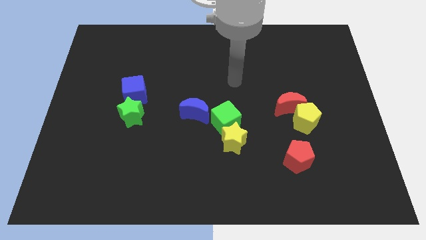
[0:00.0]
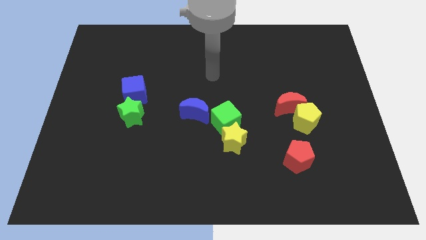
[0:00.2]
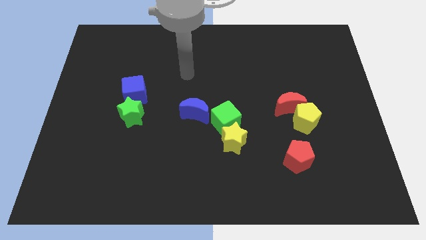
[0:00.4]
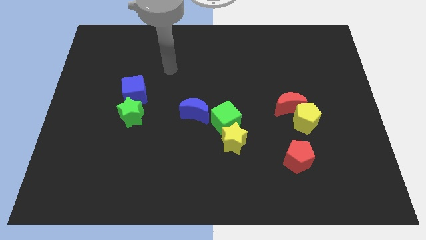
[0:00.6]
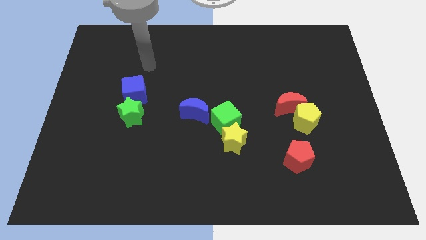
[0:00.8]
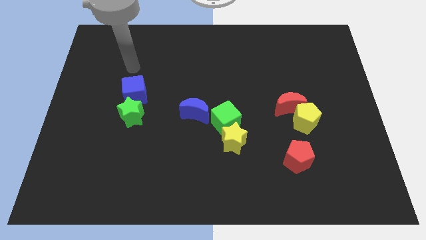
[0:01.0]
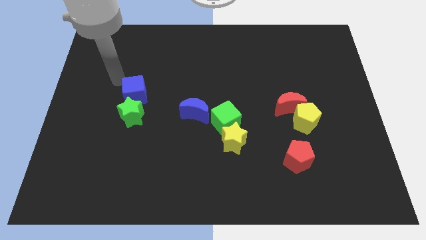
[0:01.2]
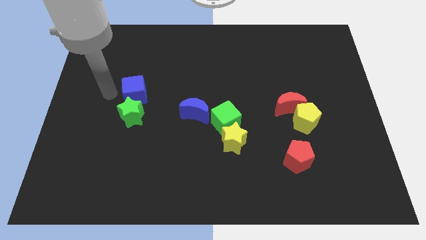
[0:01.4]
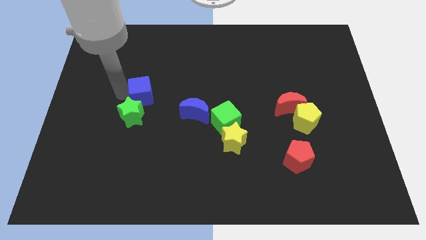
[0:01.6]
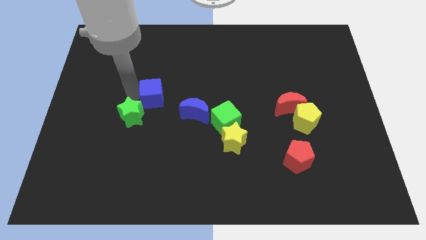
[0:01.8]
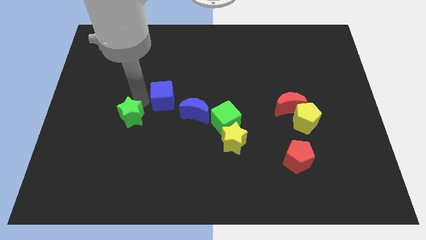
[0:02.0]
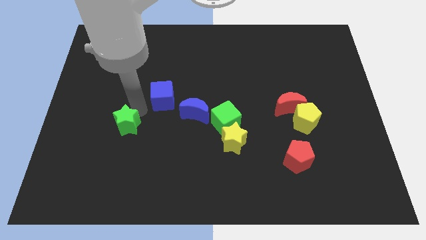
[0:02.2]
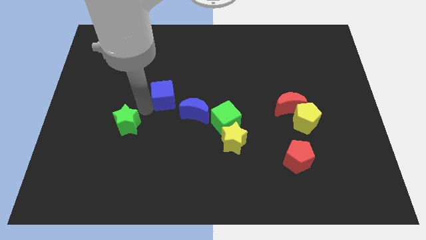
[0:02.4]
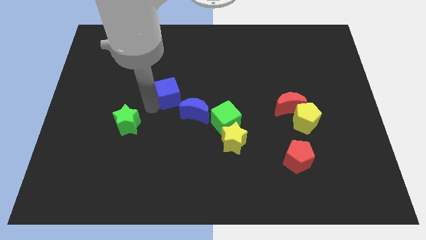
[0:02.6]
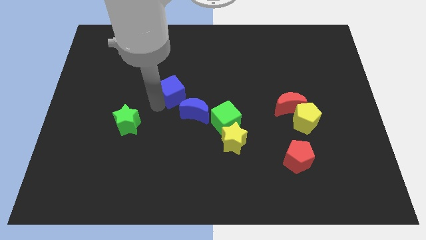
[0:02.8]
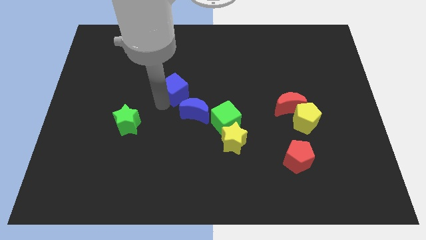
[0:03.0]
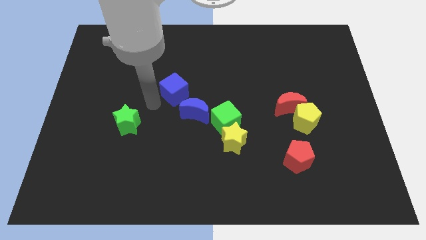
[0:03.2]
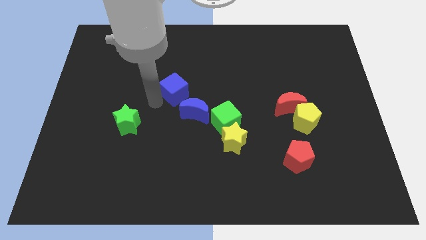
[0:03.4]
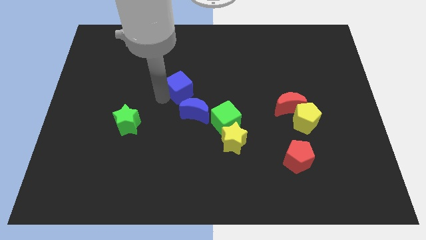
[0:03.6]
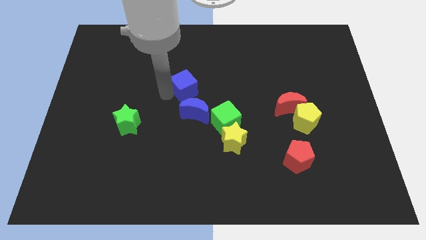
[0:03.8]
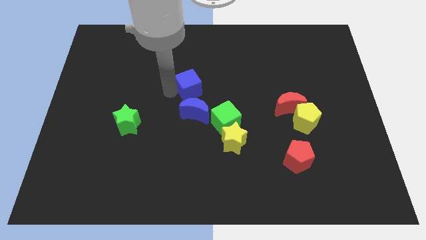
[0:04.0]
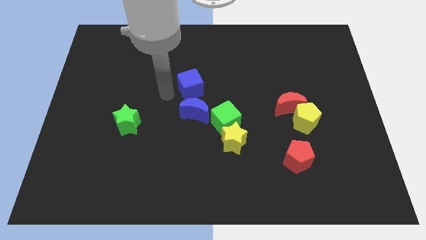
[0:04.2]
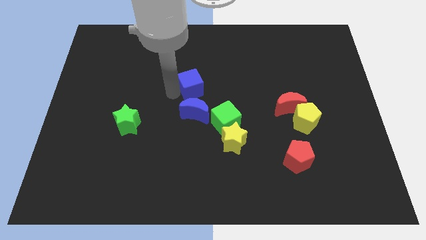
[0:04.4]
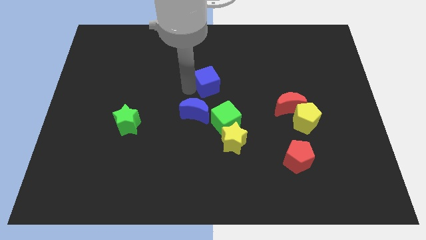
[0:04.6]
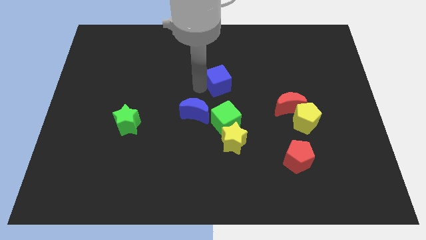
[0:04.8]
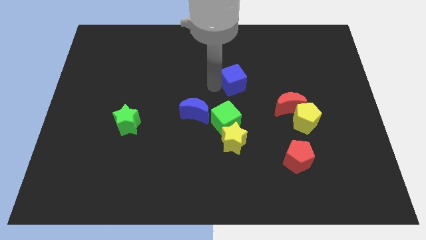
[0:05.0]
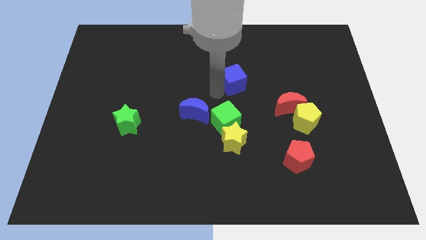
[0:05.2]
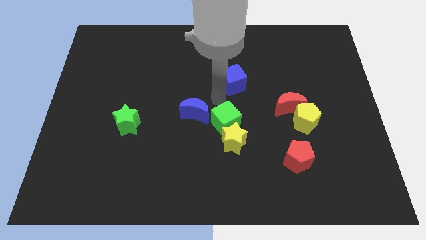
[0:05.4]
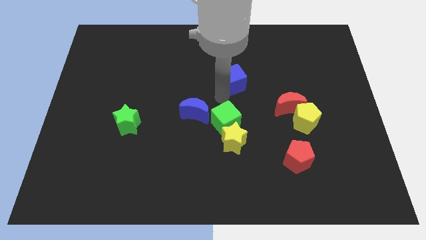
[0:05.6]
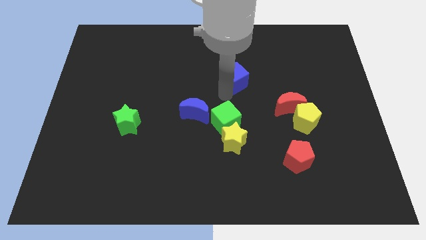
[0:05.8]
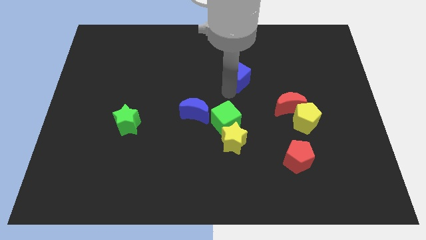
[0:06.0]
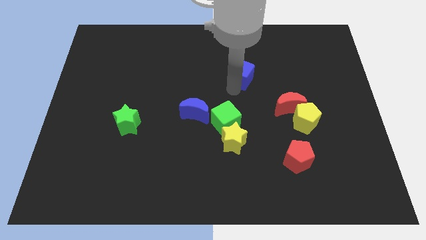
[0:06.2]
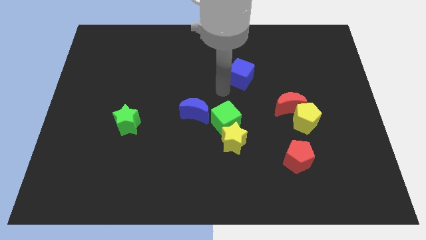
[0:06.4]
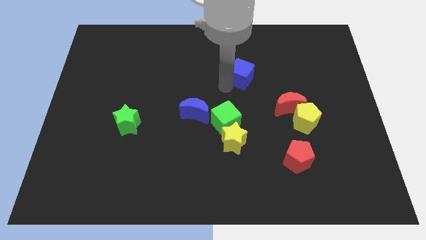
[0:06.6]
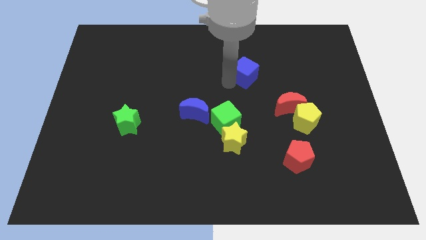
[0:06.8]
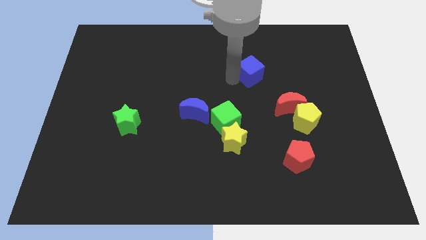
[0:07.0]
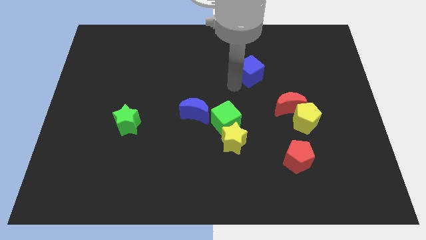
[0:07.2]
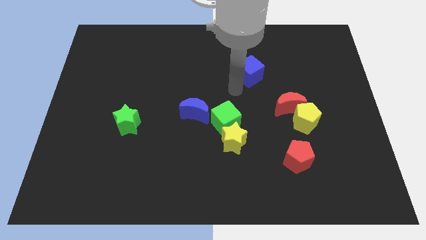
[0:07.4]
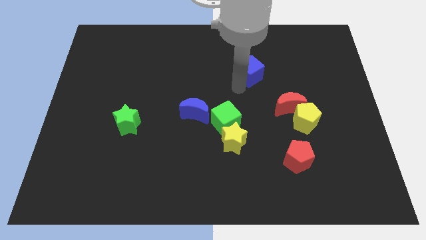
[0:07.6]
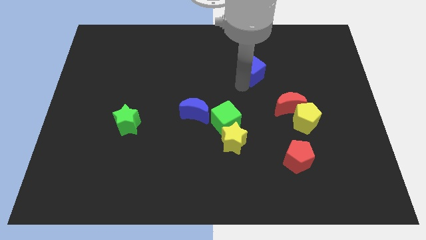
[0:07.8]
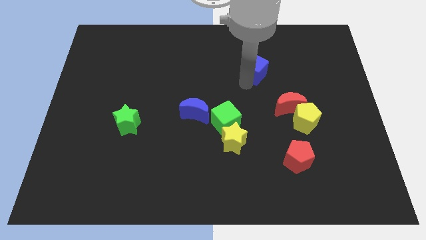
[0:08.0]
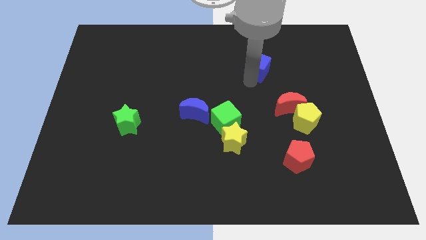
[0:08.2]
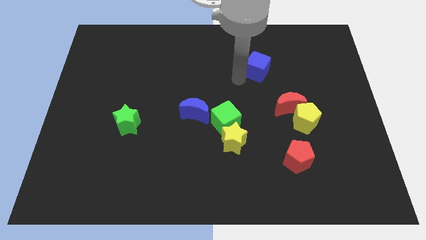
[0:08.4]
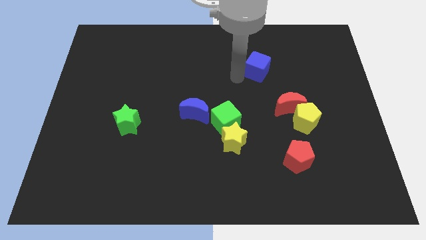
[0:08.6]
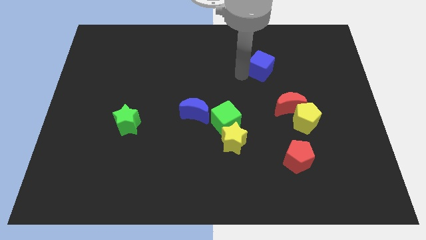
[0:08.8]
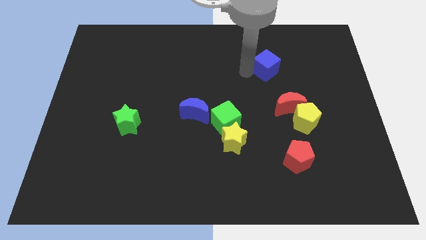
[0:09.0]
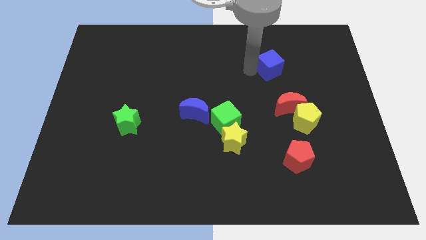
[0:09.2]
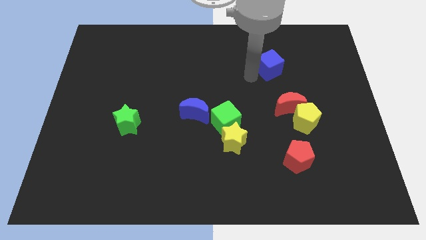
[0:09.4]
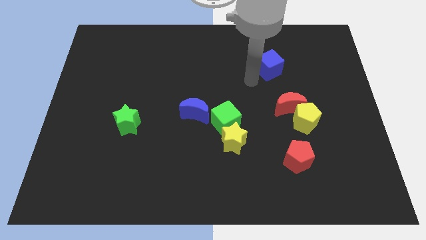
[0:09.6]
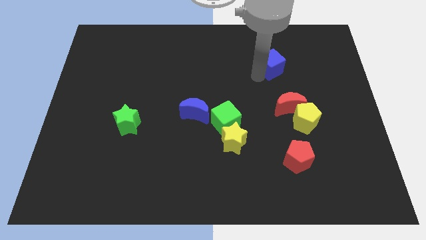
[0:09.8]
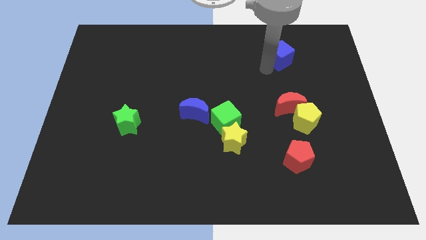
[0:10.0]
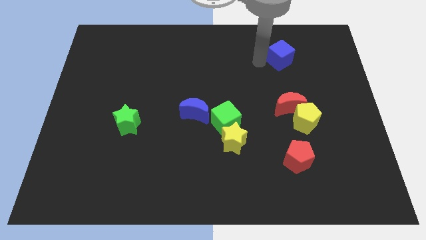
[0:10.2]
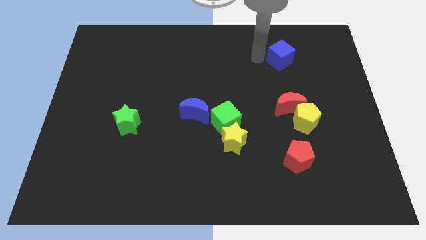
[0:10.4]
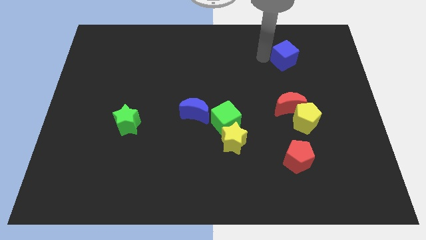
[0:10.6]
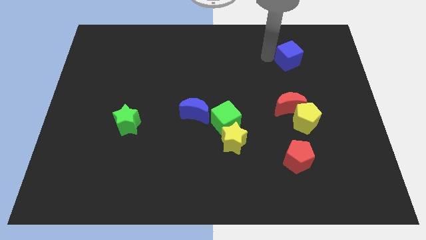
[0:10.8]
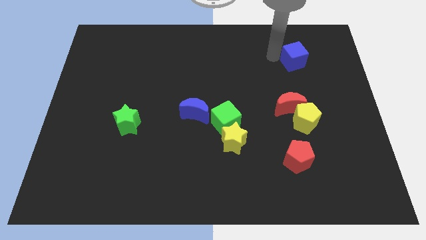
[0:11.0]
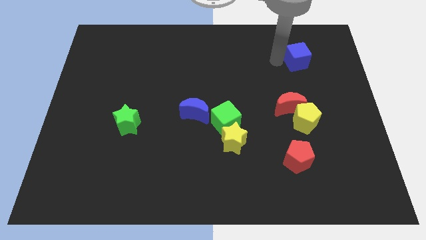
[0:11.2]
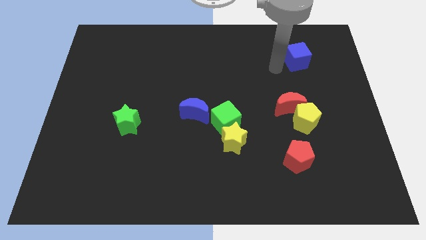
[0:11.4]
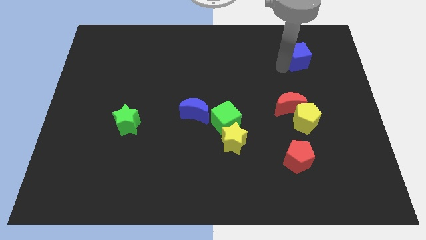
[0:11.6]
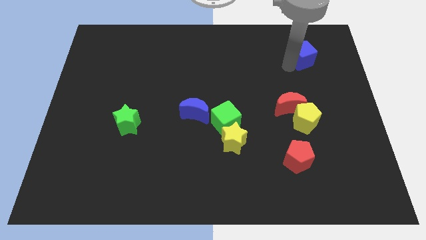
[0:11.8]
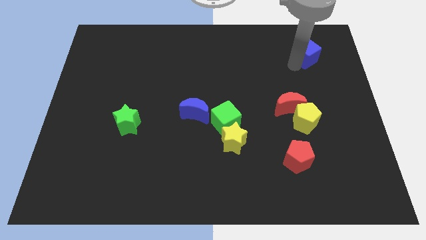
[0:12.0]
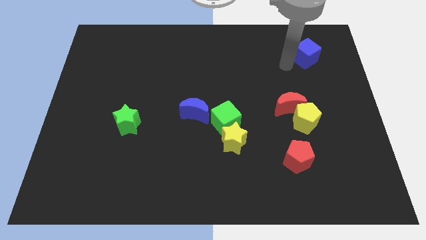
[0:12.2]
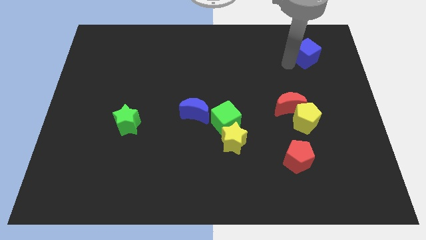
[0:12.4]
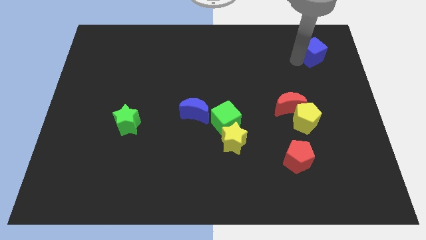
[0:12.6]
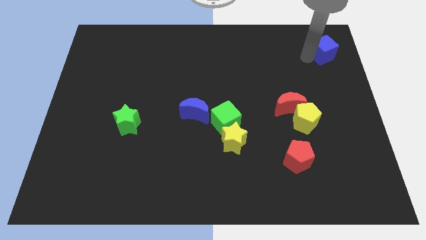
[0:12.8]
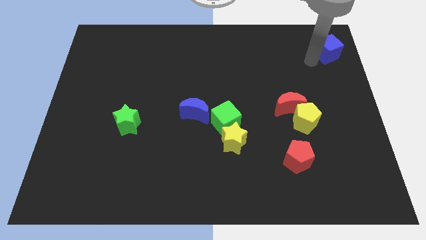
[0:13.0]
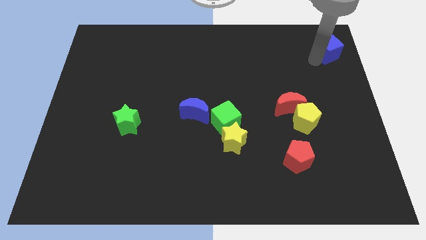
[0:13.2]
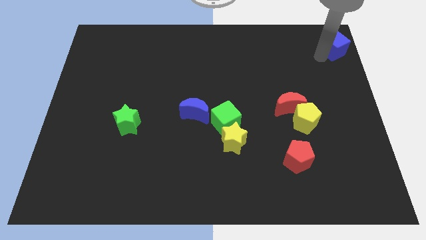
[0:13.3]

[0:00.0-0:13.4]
move the blue cube to the top right of the board

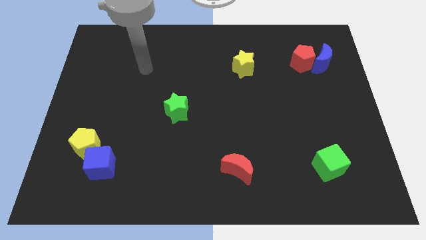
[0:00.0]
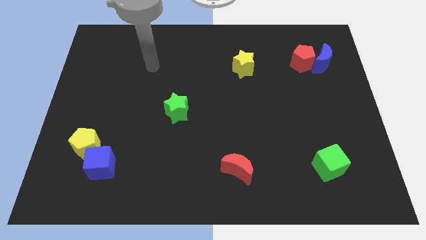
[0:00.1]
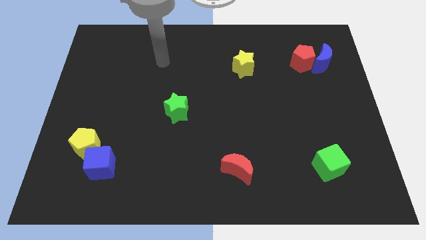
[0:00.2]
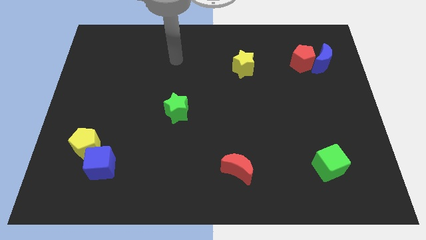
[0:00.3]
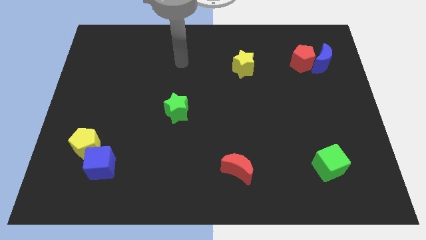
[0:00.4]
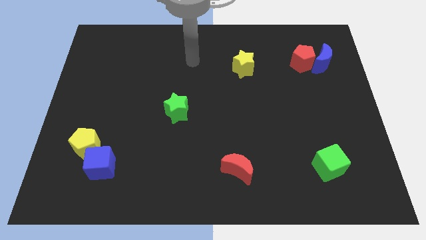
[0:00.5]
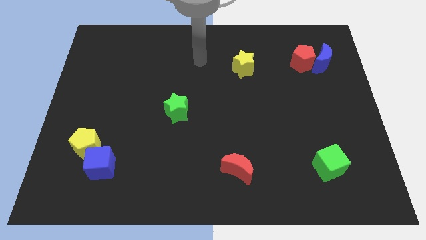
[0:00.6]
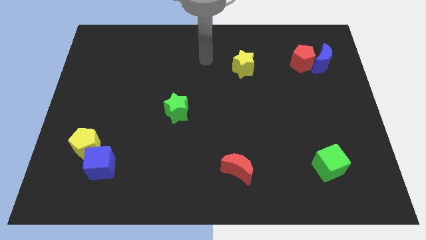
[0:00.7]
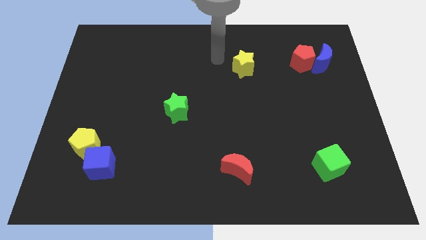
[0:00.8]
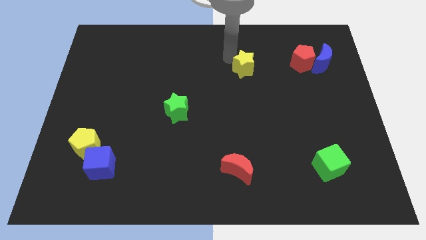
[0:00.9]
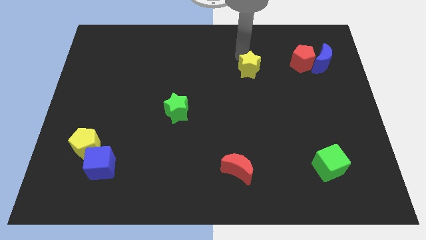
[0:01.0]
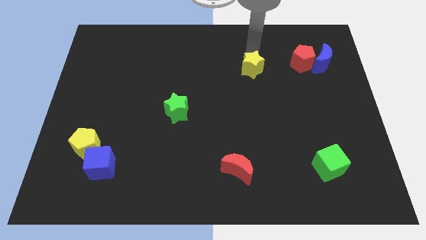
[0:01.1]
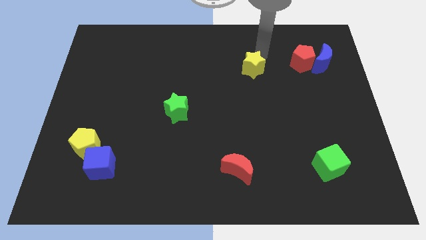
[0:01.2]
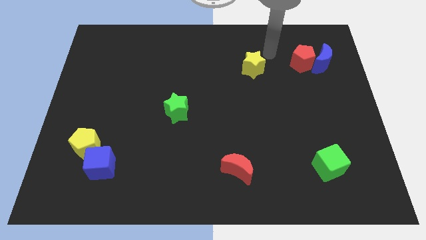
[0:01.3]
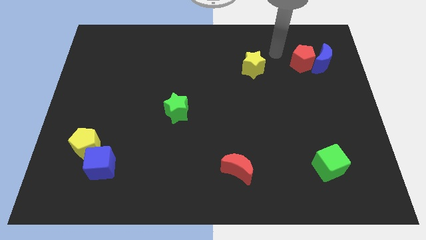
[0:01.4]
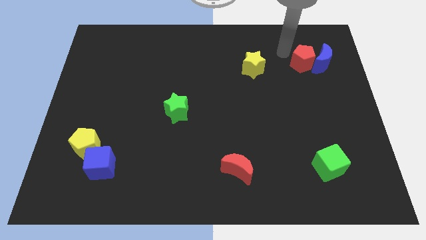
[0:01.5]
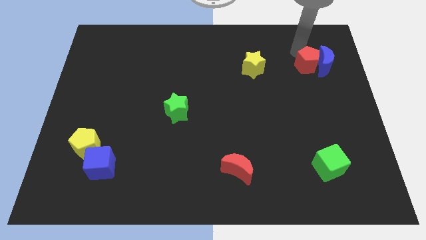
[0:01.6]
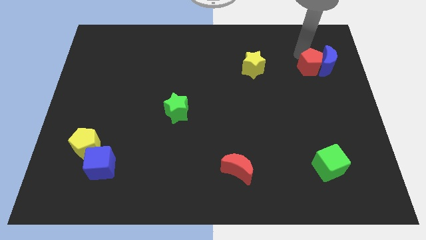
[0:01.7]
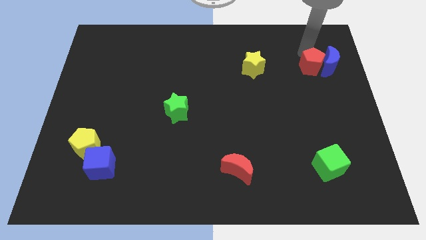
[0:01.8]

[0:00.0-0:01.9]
push the blue moon to the center right
